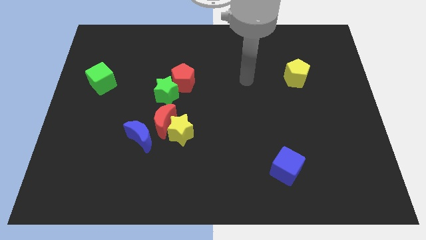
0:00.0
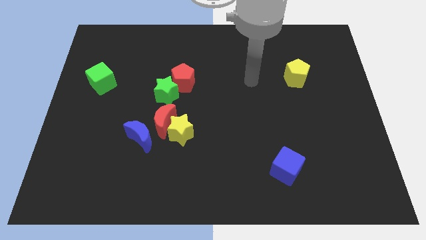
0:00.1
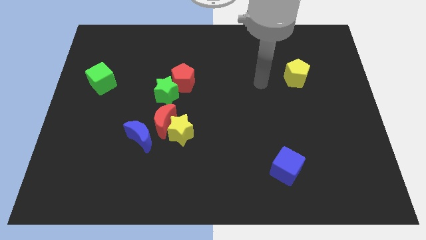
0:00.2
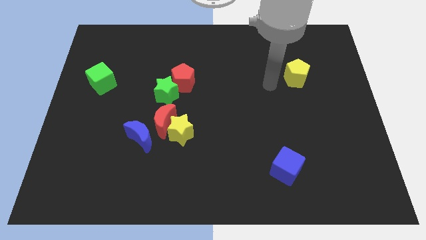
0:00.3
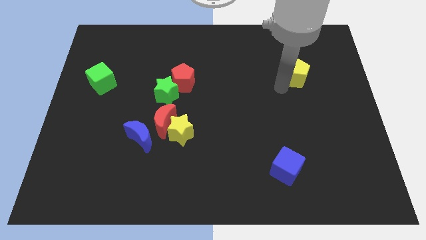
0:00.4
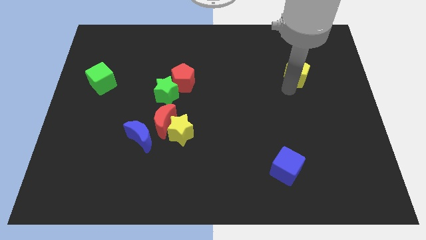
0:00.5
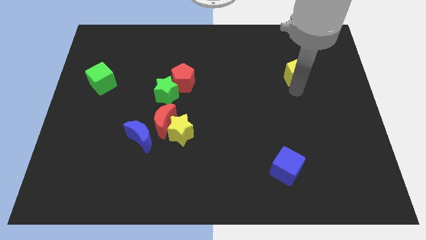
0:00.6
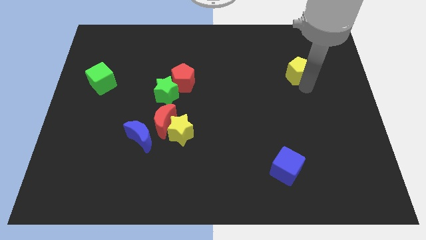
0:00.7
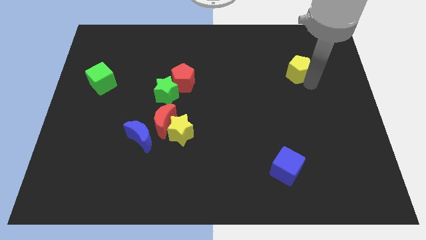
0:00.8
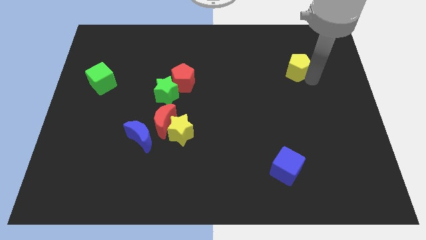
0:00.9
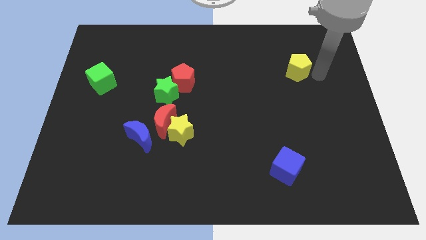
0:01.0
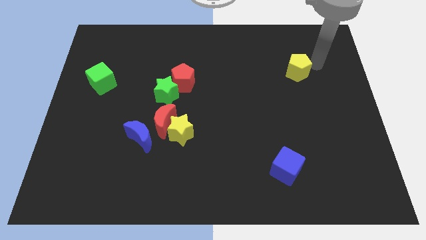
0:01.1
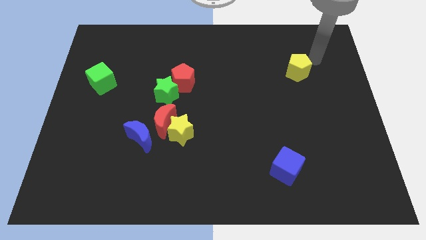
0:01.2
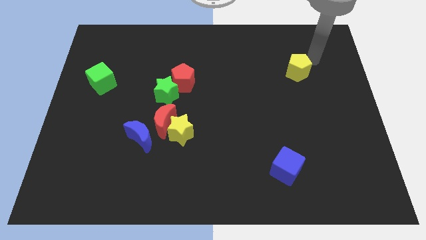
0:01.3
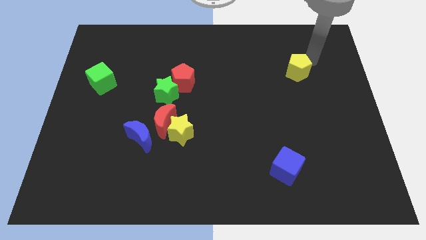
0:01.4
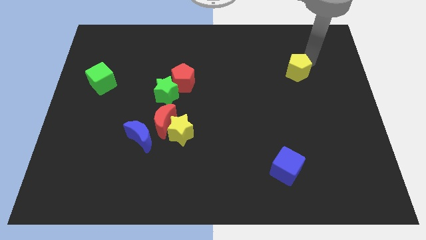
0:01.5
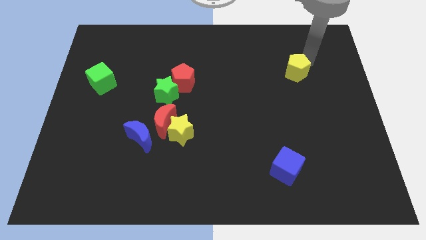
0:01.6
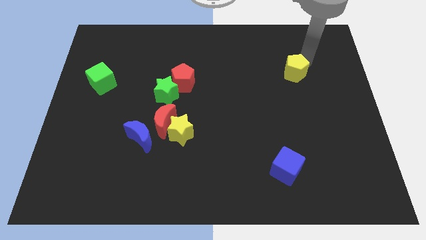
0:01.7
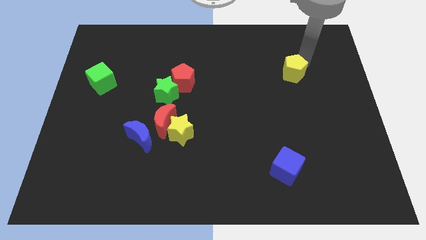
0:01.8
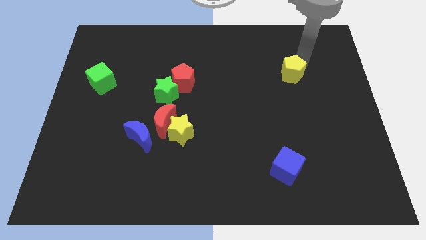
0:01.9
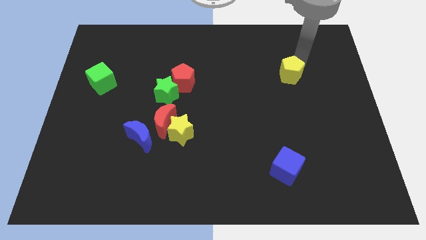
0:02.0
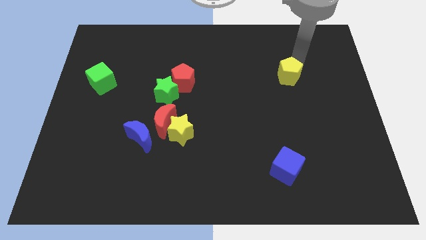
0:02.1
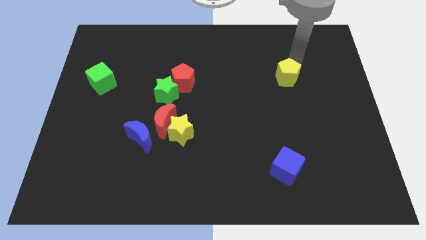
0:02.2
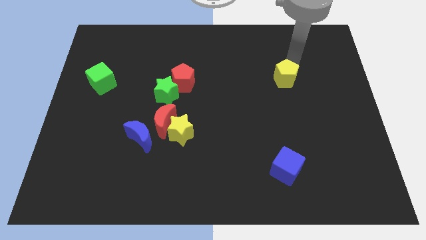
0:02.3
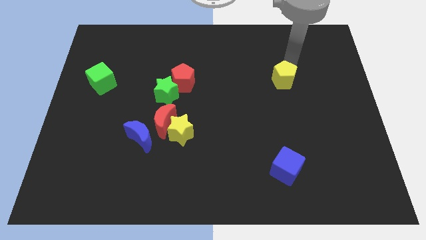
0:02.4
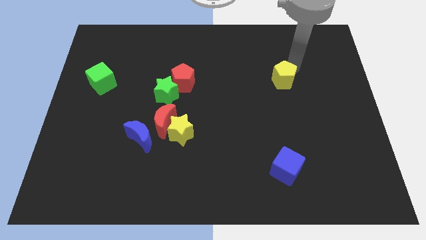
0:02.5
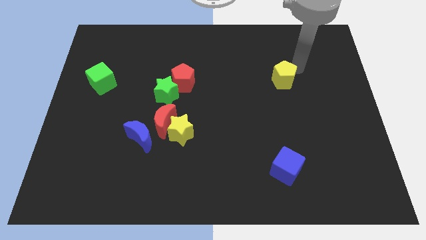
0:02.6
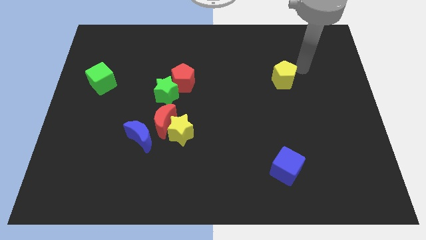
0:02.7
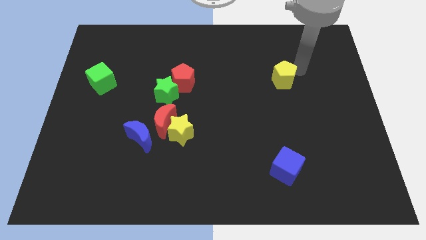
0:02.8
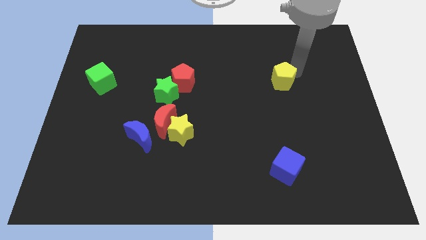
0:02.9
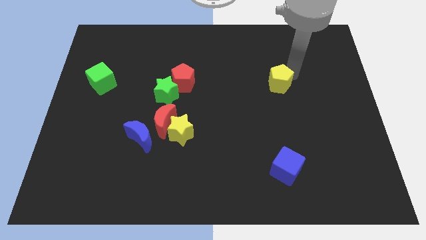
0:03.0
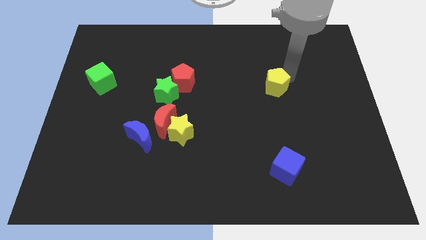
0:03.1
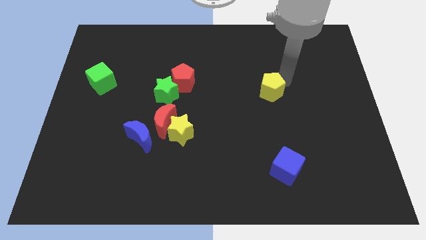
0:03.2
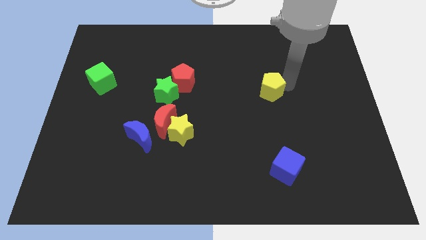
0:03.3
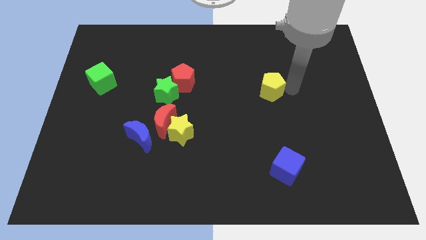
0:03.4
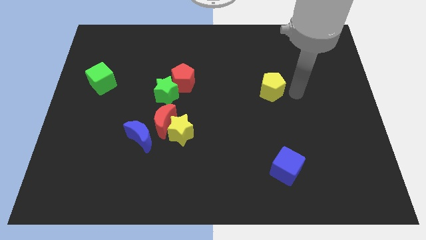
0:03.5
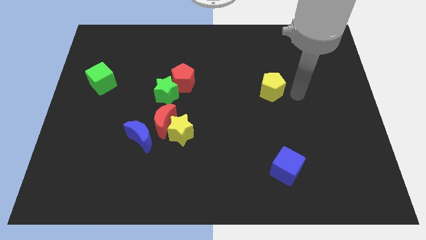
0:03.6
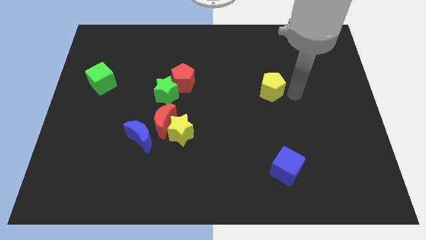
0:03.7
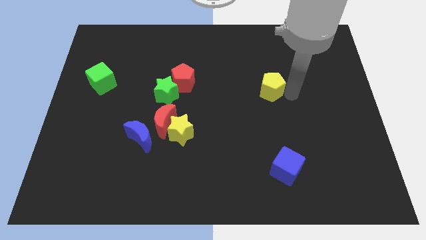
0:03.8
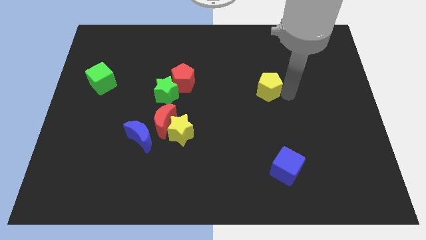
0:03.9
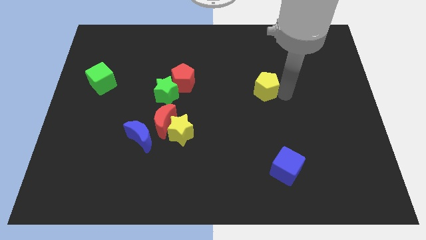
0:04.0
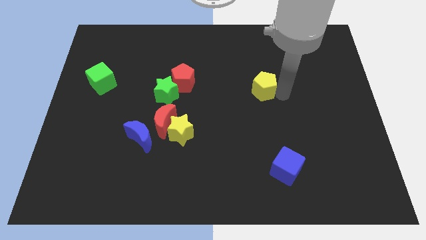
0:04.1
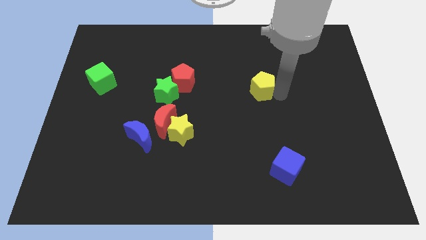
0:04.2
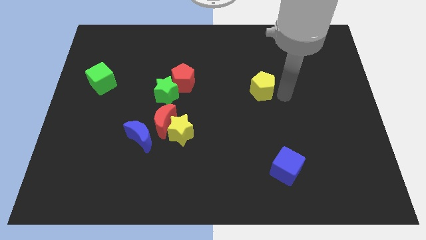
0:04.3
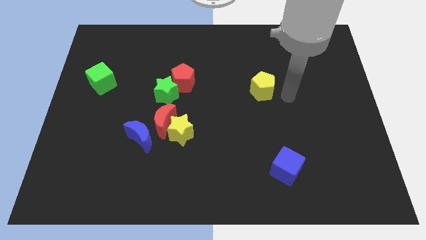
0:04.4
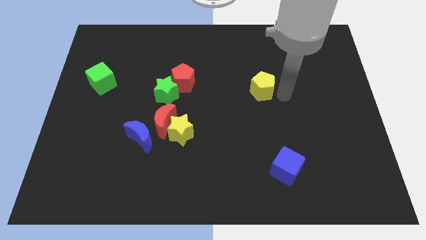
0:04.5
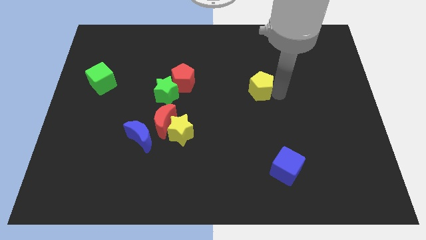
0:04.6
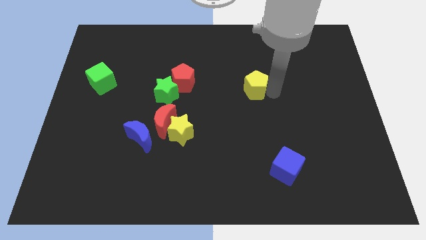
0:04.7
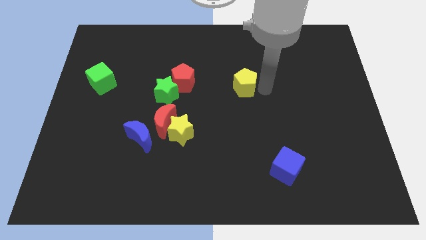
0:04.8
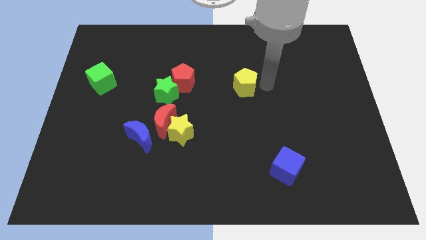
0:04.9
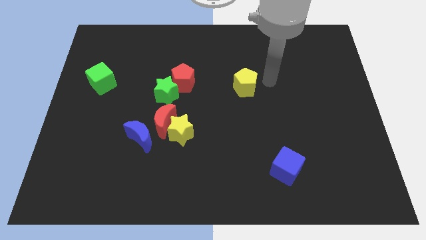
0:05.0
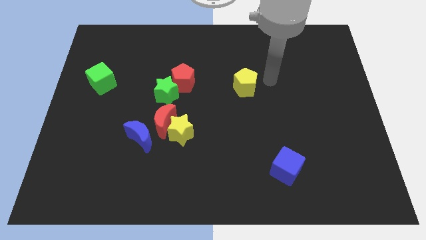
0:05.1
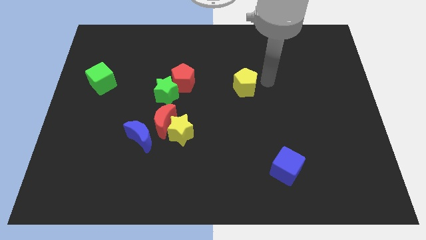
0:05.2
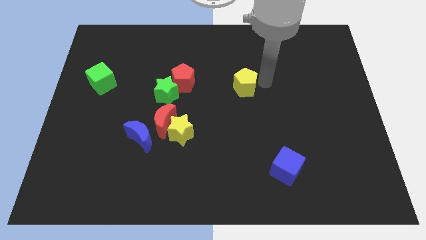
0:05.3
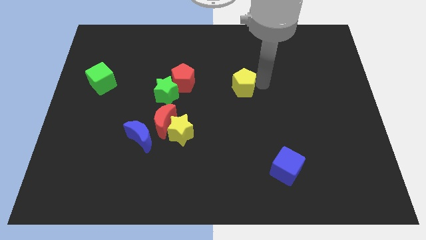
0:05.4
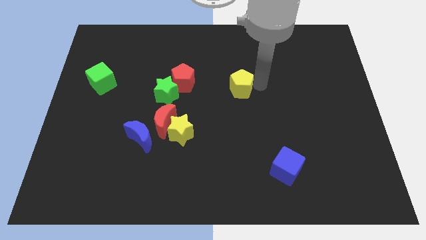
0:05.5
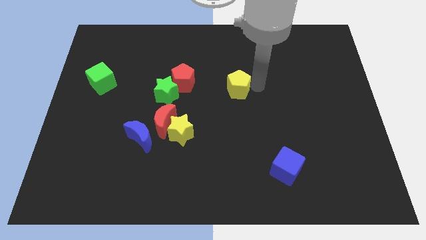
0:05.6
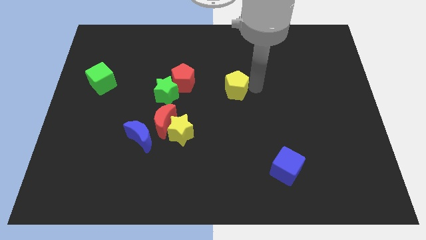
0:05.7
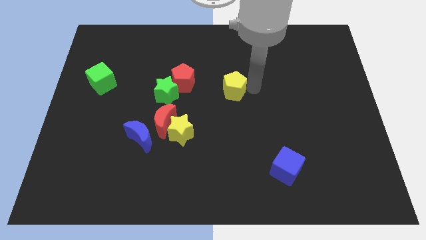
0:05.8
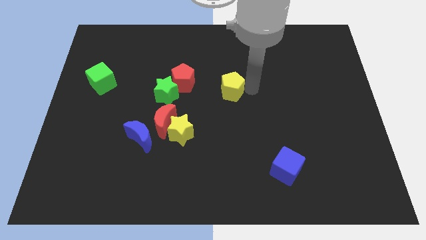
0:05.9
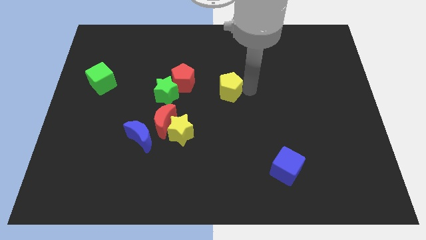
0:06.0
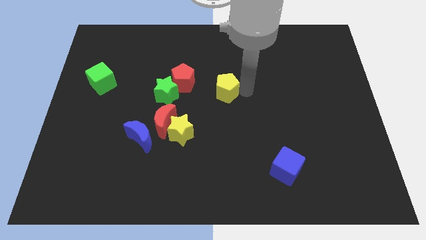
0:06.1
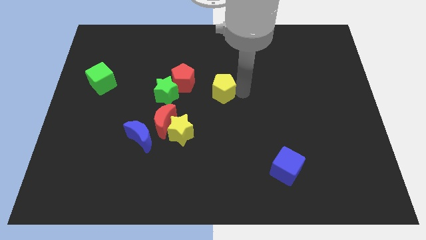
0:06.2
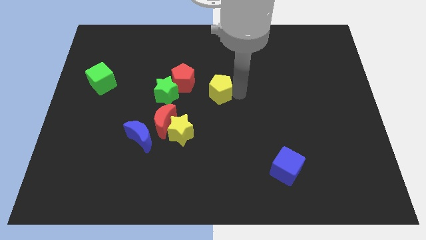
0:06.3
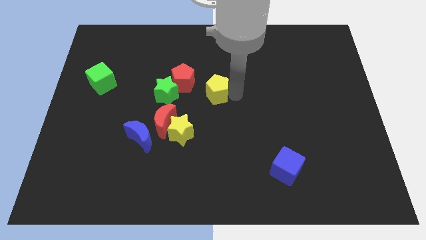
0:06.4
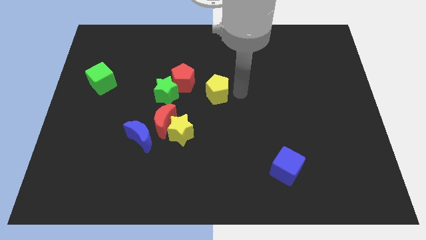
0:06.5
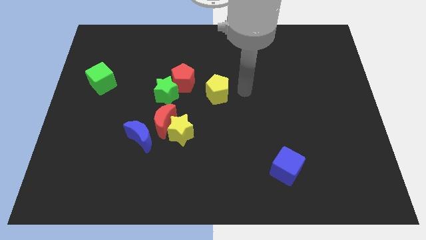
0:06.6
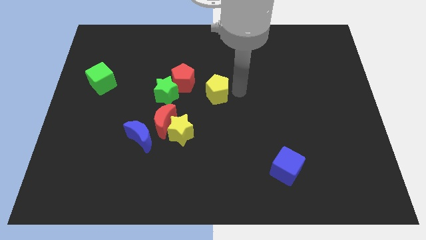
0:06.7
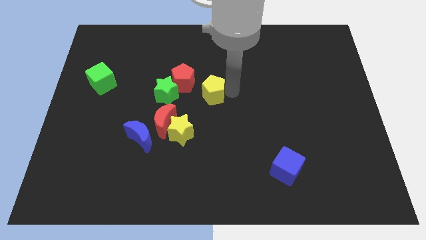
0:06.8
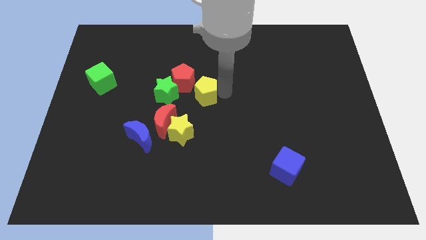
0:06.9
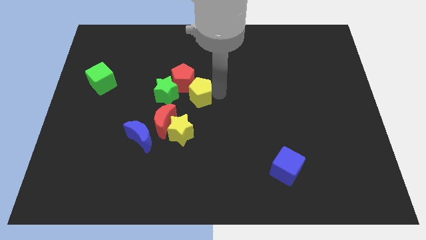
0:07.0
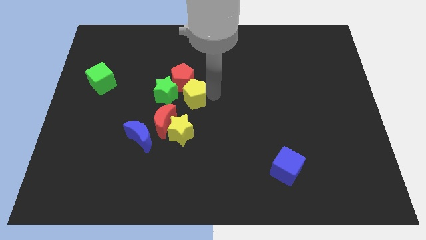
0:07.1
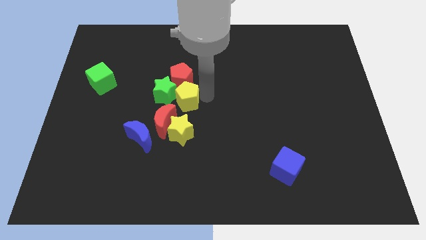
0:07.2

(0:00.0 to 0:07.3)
slide the yellow pentagon close to the green star
